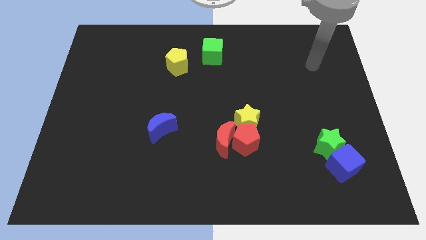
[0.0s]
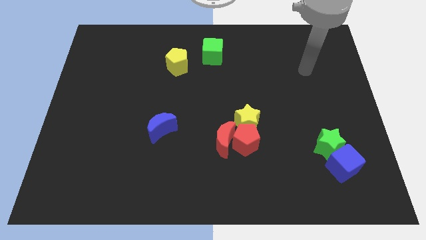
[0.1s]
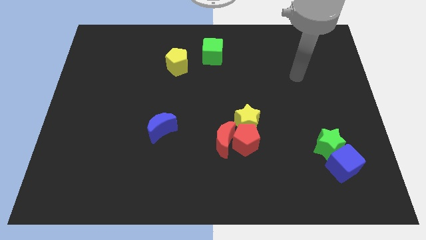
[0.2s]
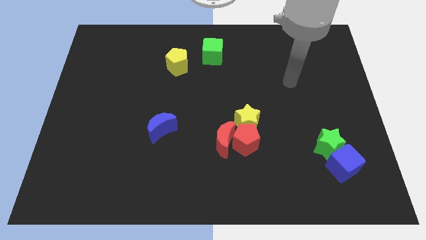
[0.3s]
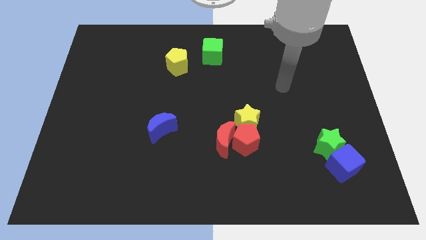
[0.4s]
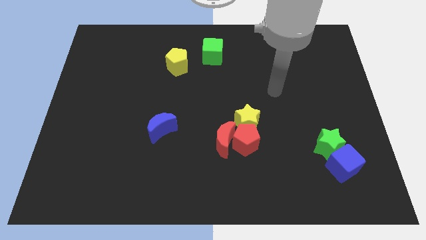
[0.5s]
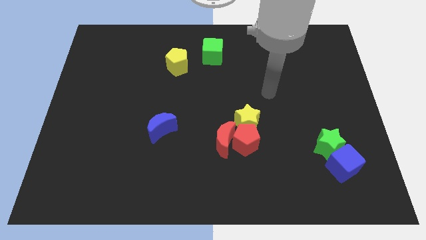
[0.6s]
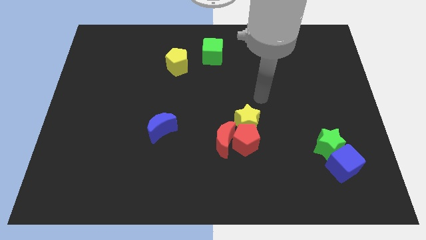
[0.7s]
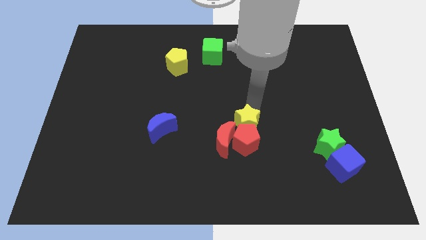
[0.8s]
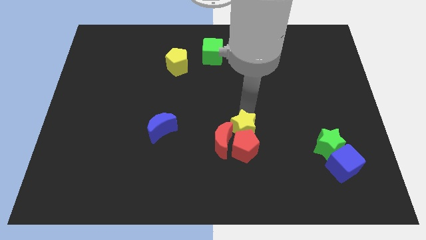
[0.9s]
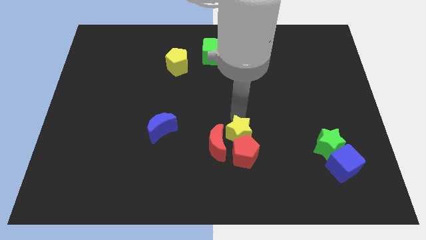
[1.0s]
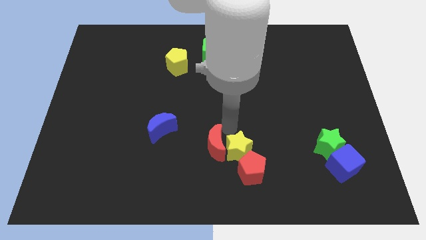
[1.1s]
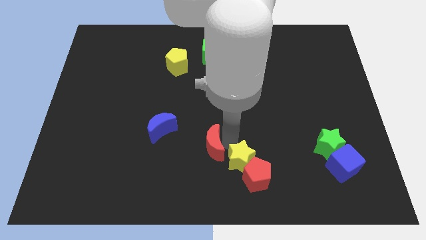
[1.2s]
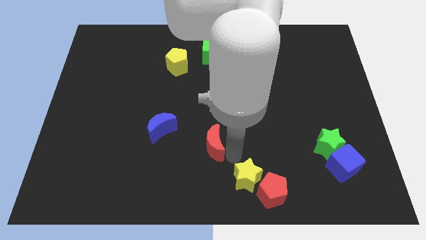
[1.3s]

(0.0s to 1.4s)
separate the red pentagon from the red moon and yellow star

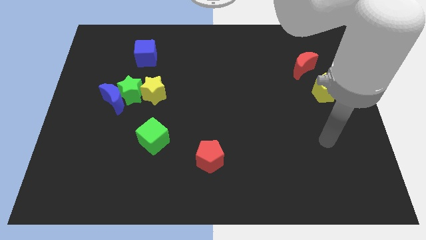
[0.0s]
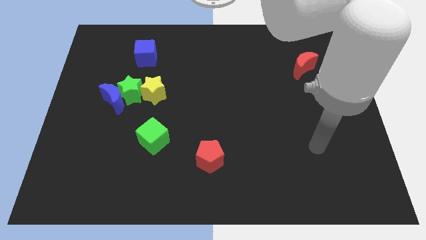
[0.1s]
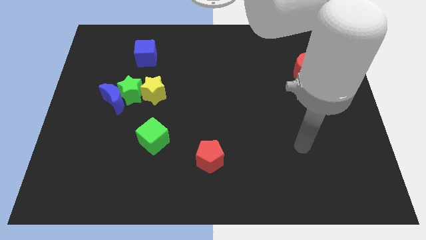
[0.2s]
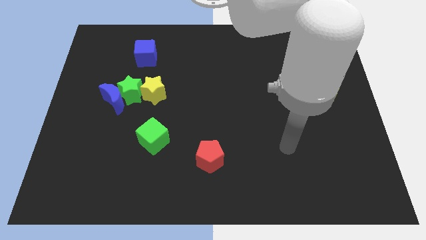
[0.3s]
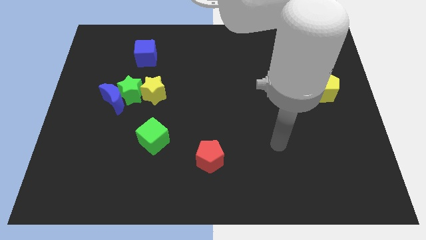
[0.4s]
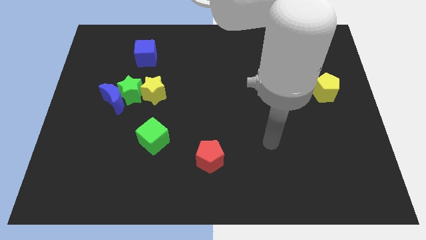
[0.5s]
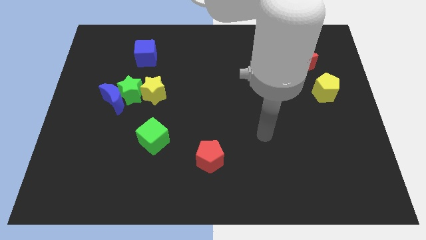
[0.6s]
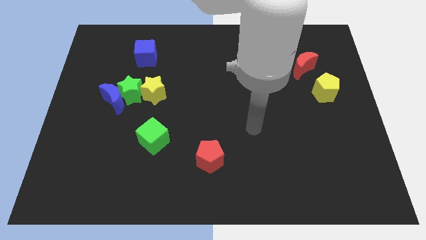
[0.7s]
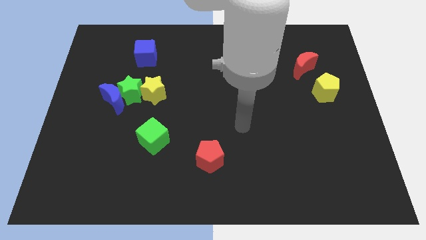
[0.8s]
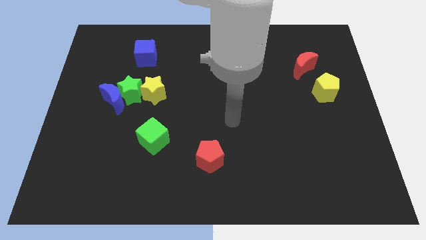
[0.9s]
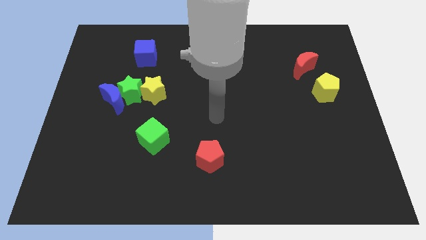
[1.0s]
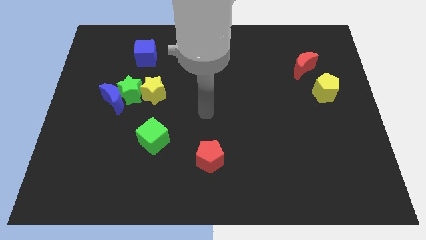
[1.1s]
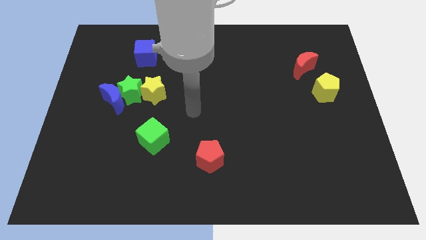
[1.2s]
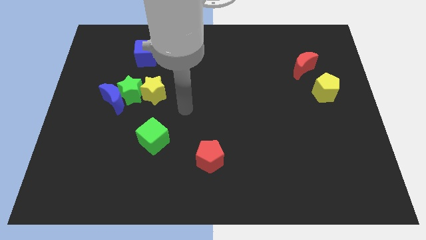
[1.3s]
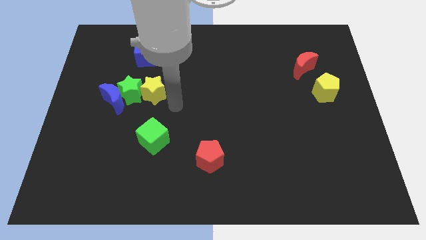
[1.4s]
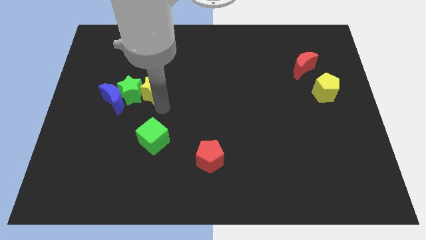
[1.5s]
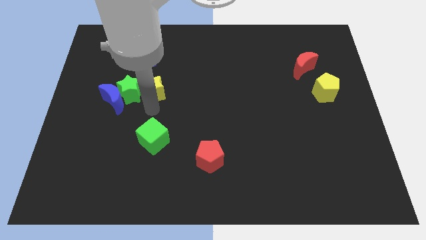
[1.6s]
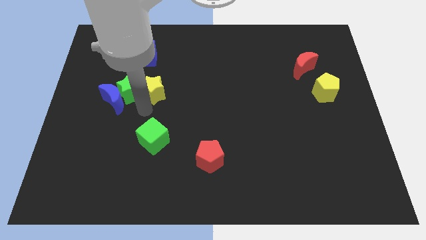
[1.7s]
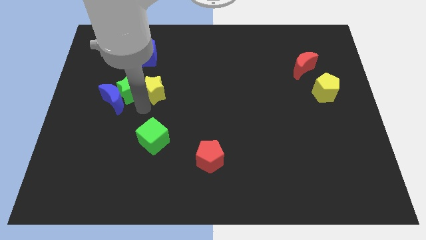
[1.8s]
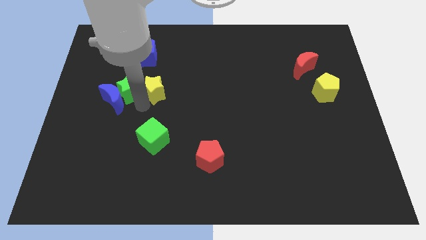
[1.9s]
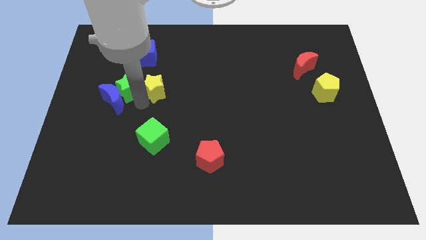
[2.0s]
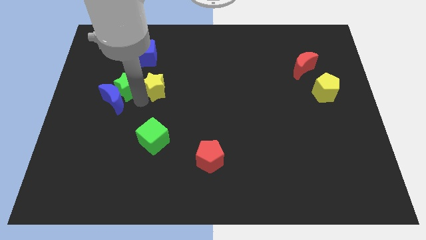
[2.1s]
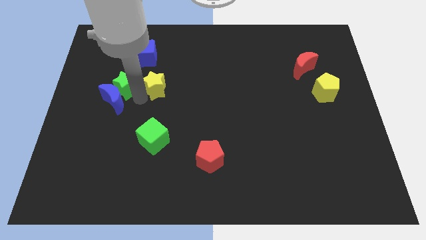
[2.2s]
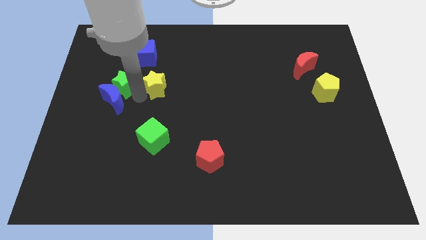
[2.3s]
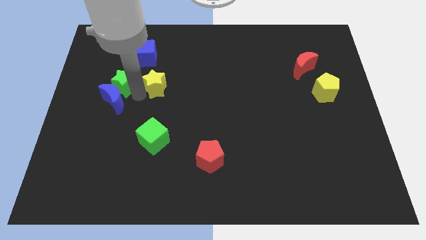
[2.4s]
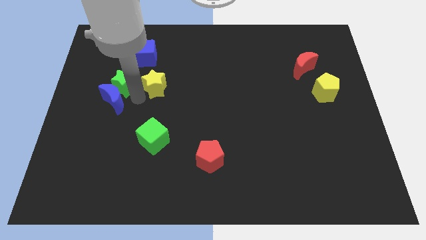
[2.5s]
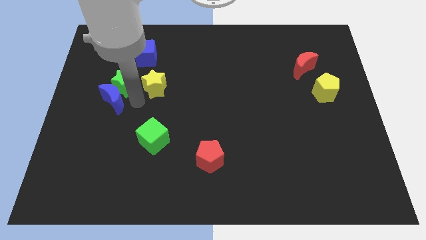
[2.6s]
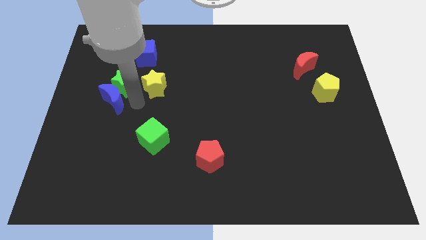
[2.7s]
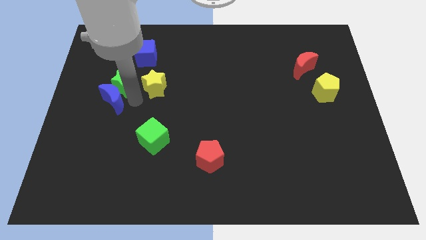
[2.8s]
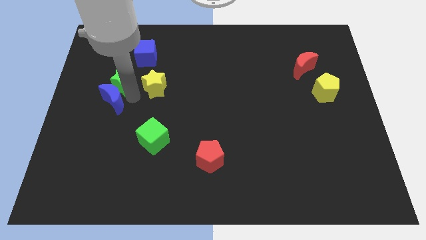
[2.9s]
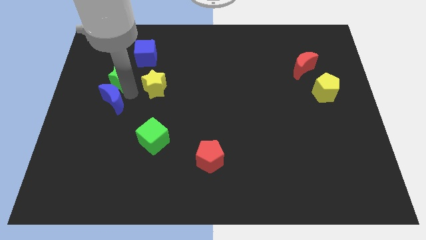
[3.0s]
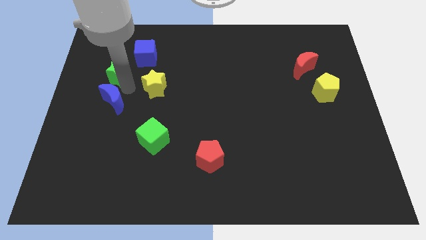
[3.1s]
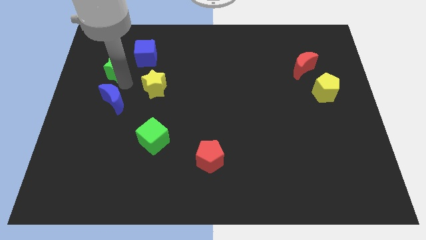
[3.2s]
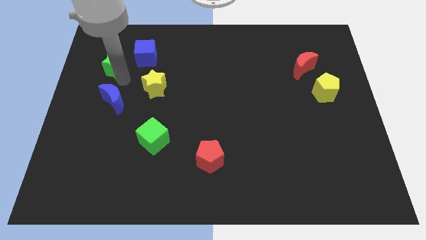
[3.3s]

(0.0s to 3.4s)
pull the green star apart from the blue moon and yellow star

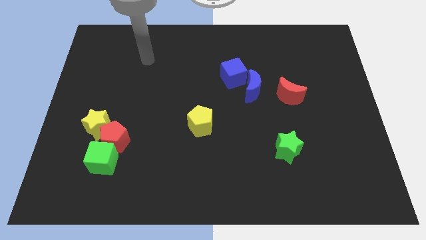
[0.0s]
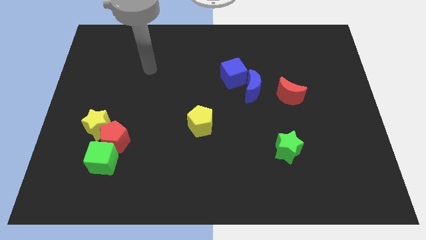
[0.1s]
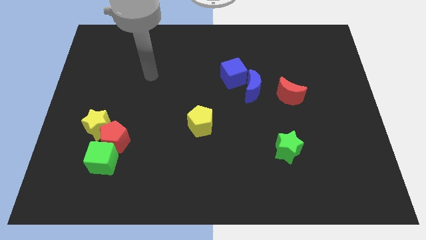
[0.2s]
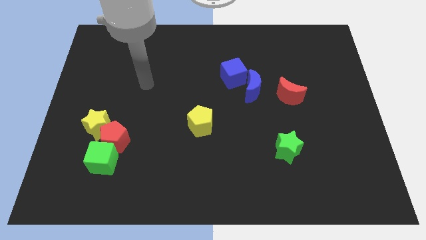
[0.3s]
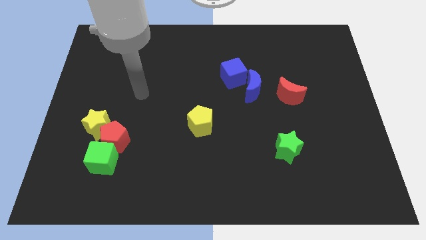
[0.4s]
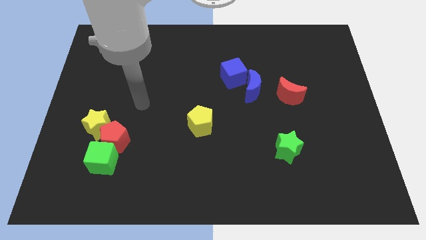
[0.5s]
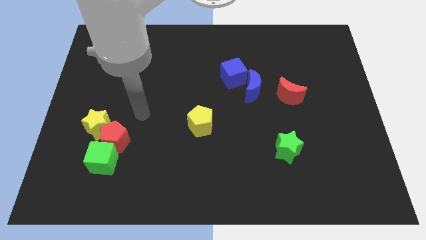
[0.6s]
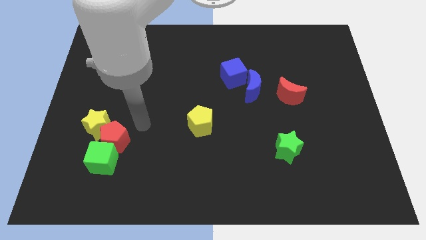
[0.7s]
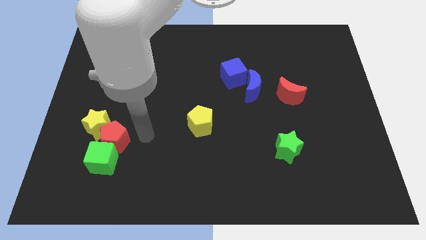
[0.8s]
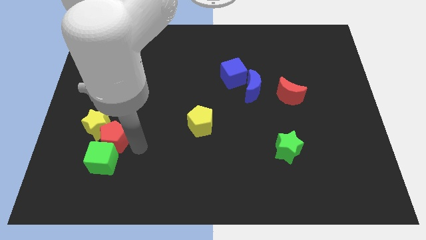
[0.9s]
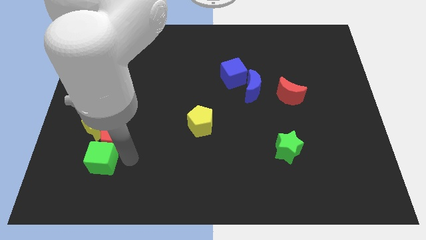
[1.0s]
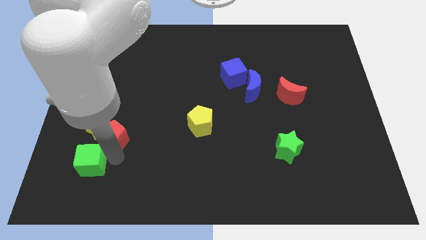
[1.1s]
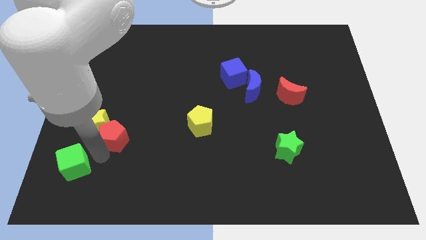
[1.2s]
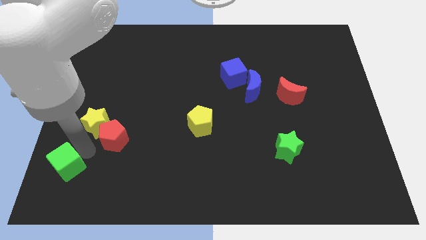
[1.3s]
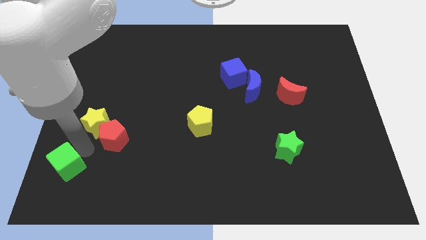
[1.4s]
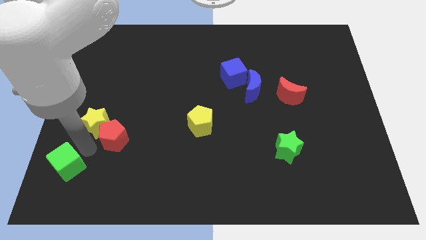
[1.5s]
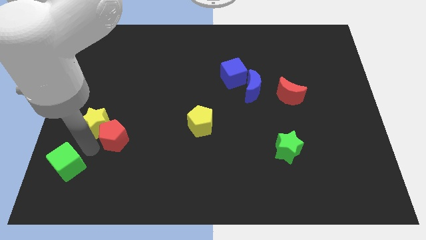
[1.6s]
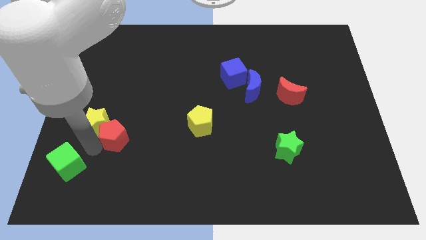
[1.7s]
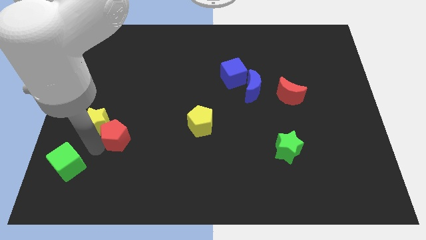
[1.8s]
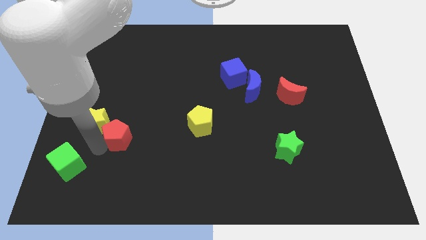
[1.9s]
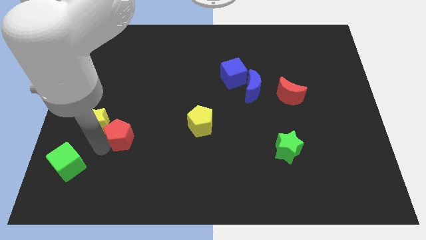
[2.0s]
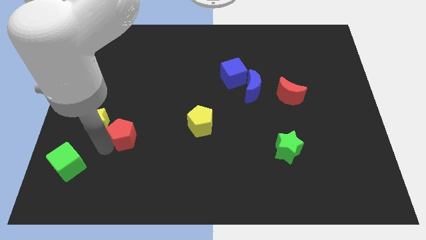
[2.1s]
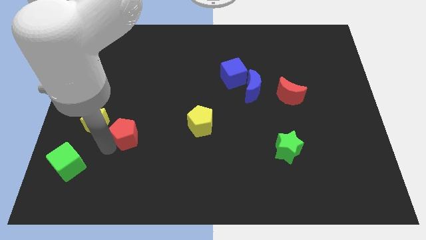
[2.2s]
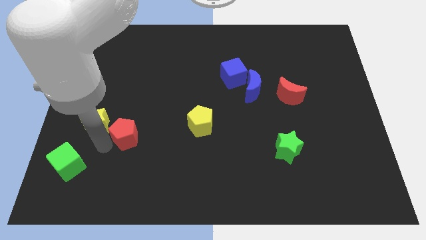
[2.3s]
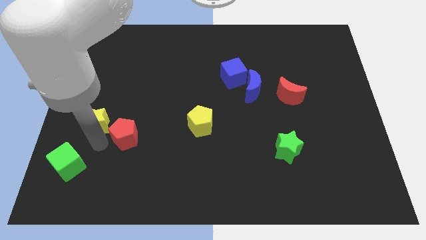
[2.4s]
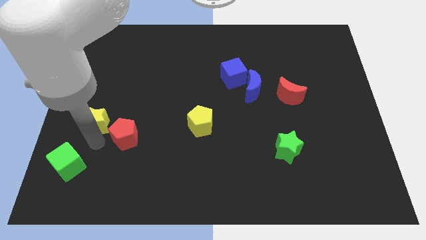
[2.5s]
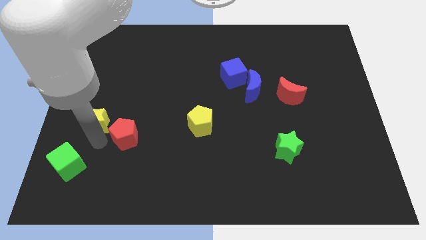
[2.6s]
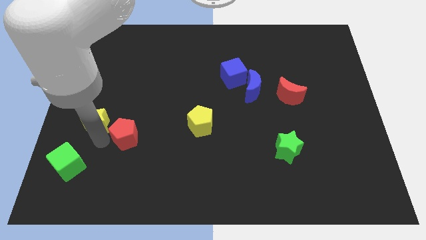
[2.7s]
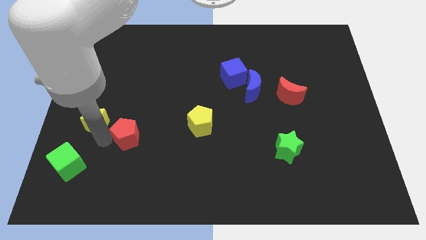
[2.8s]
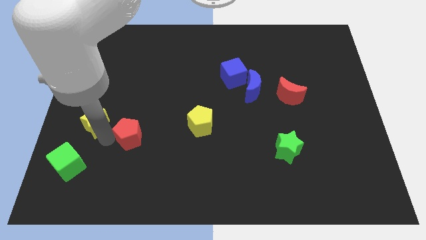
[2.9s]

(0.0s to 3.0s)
pull the red pentagon apart from the green cube and yellow star

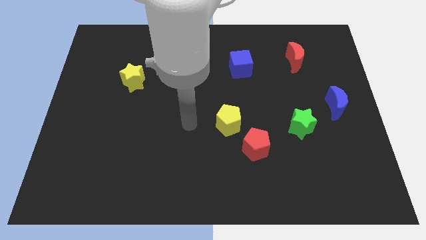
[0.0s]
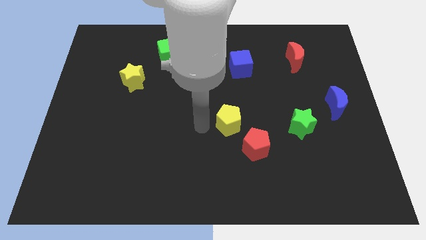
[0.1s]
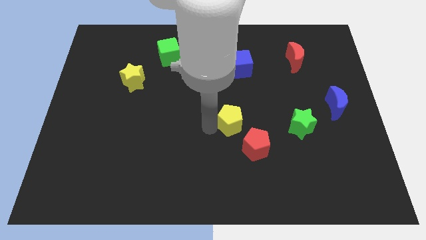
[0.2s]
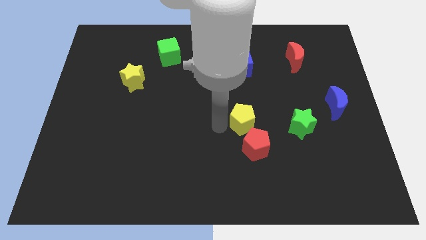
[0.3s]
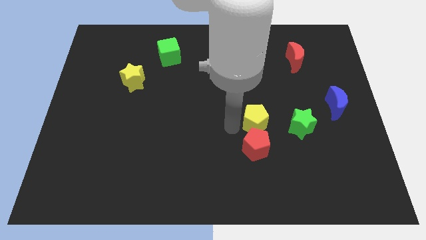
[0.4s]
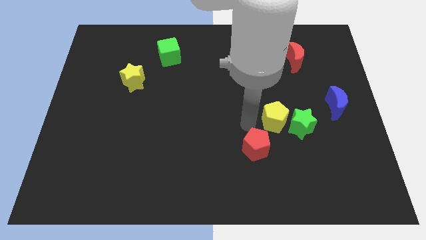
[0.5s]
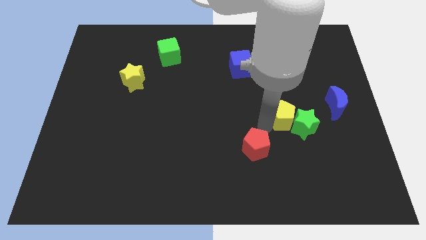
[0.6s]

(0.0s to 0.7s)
move the red pentagon away from the yellow pentagon

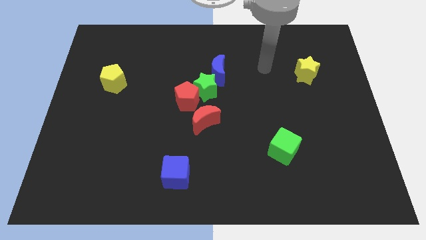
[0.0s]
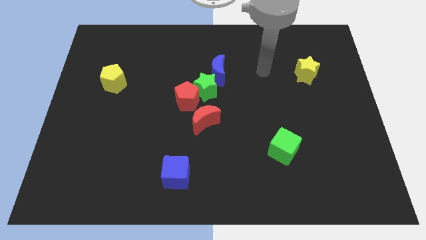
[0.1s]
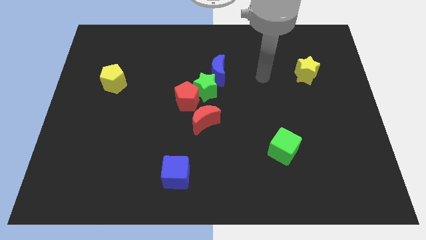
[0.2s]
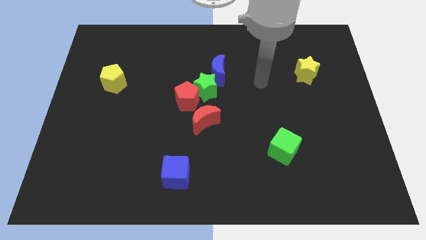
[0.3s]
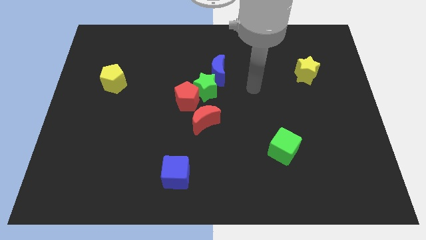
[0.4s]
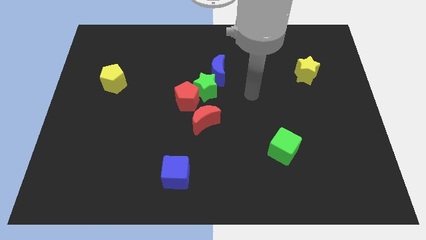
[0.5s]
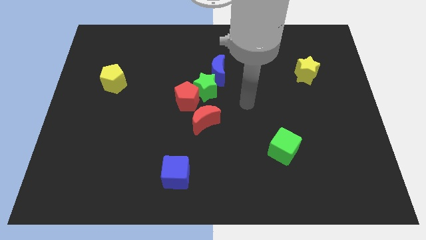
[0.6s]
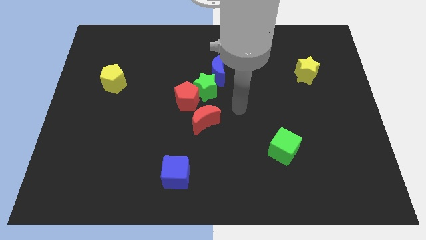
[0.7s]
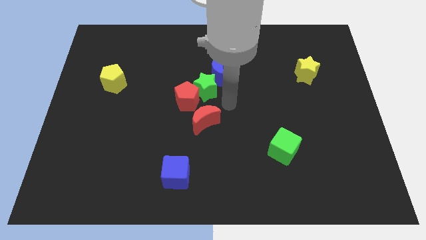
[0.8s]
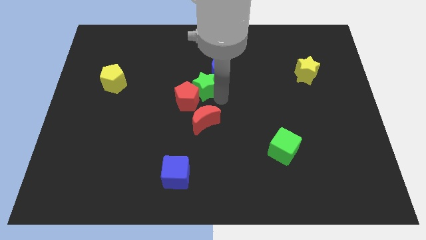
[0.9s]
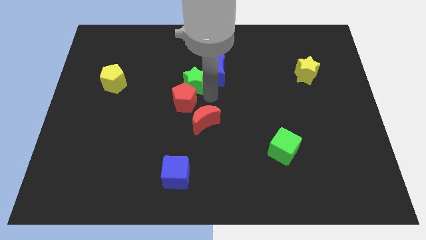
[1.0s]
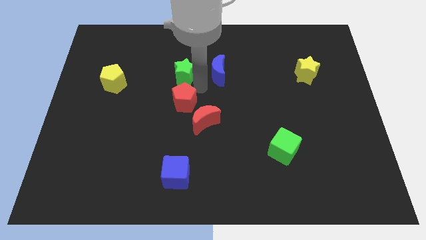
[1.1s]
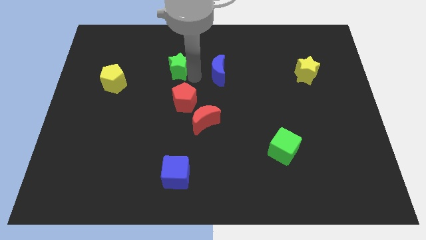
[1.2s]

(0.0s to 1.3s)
pull the blue moon apart from the green star
